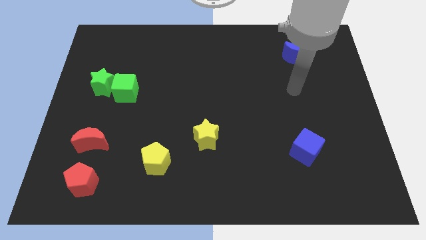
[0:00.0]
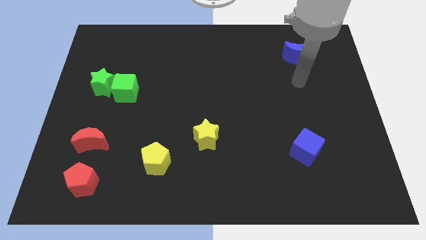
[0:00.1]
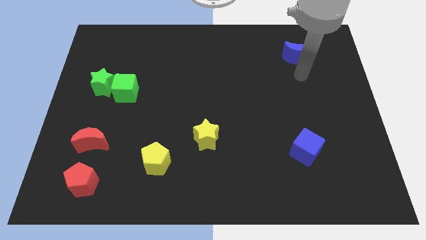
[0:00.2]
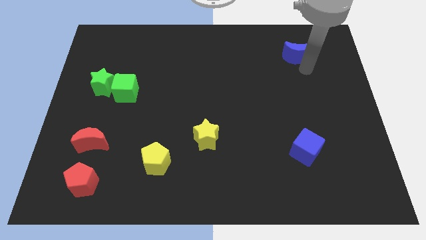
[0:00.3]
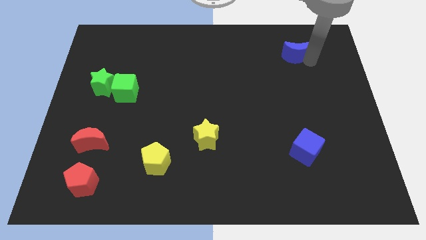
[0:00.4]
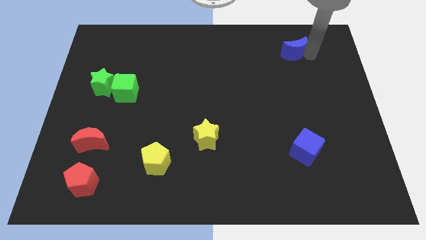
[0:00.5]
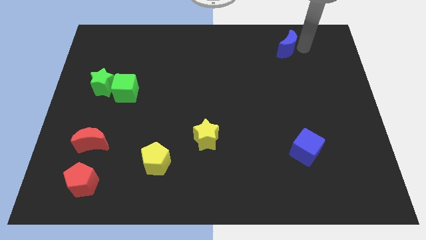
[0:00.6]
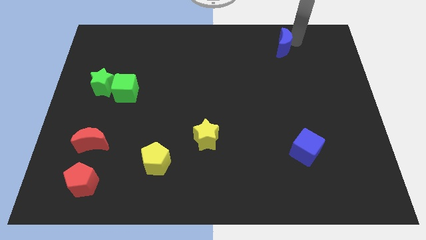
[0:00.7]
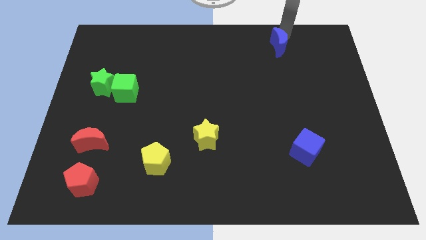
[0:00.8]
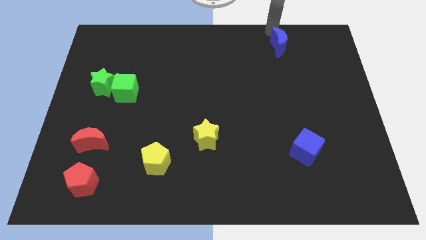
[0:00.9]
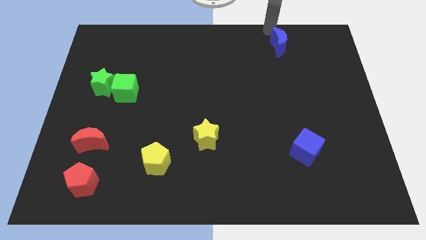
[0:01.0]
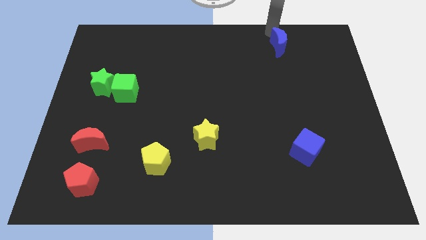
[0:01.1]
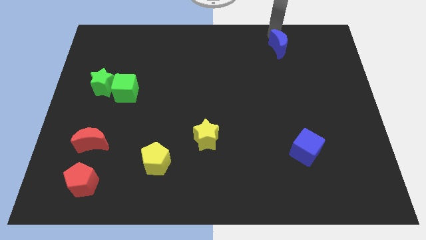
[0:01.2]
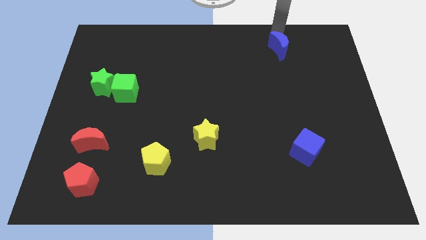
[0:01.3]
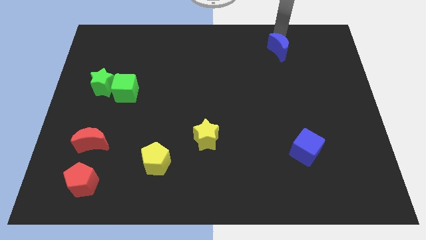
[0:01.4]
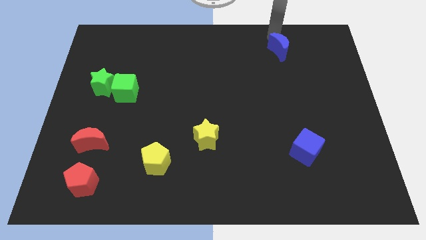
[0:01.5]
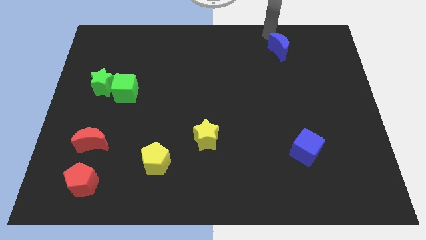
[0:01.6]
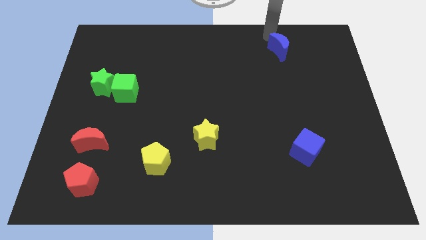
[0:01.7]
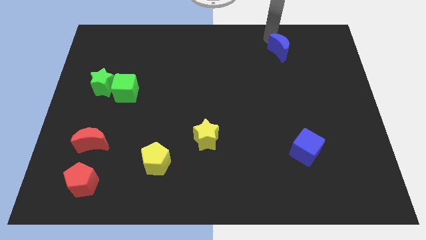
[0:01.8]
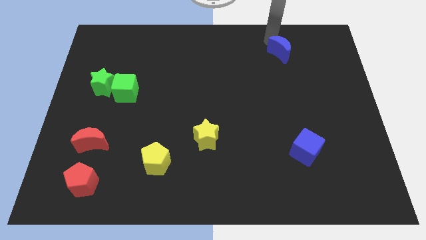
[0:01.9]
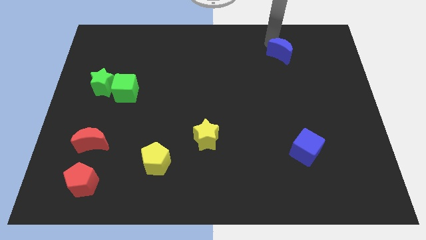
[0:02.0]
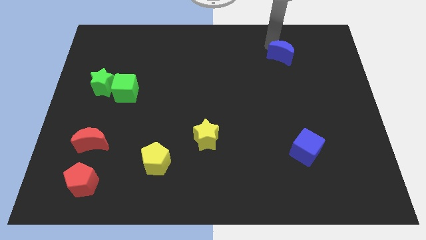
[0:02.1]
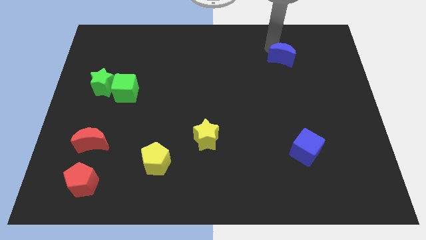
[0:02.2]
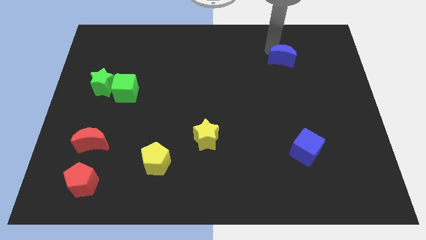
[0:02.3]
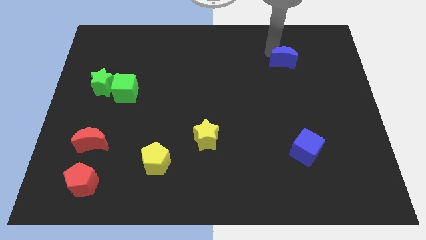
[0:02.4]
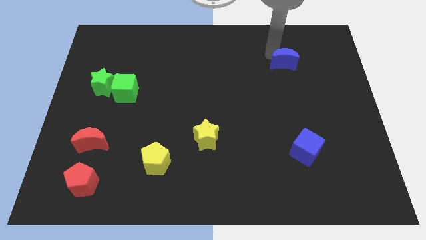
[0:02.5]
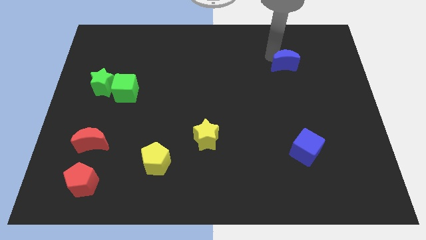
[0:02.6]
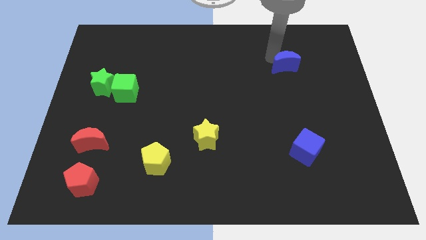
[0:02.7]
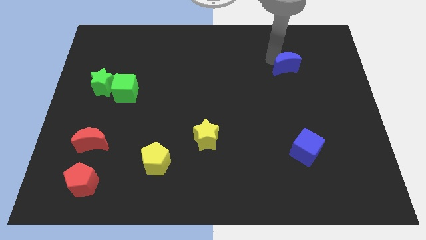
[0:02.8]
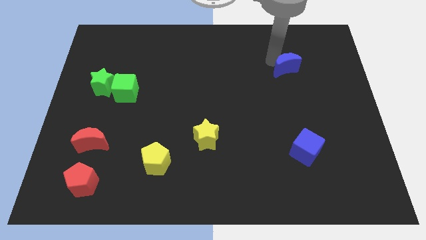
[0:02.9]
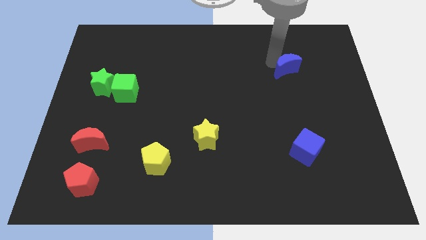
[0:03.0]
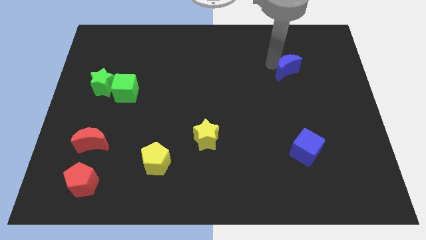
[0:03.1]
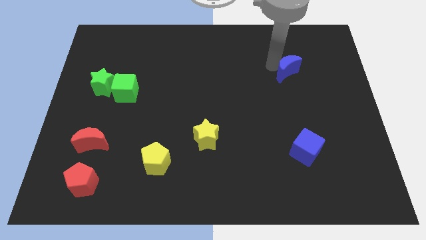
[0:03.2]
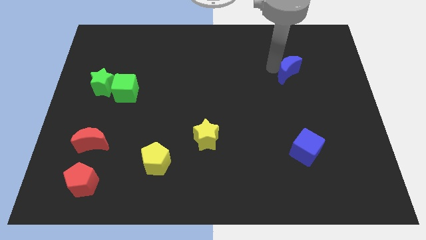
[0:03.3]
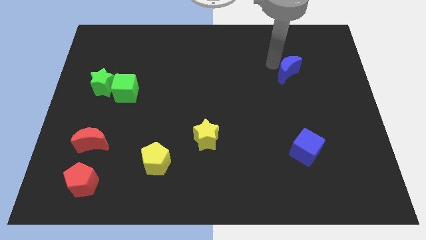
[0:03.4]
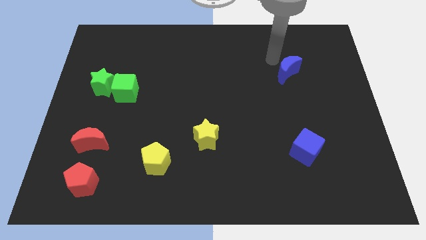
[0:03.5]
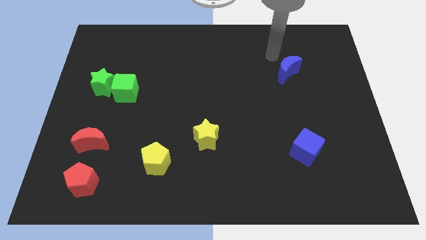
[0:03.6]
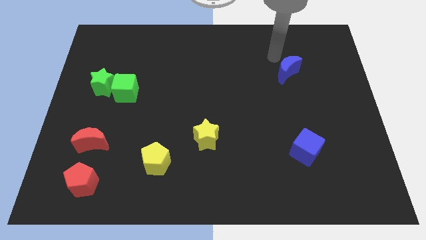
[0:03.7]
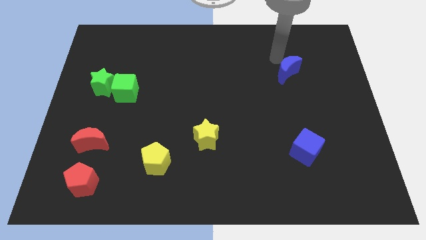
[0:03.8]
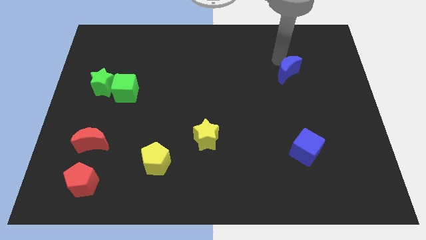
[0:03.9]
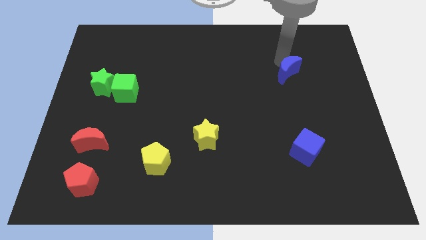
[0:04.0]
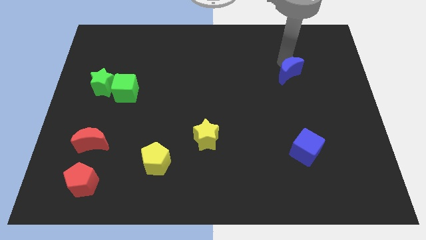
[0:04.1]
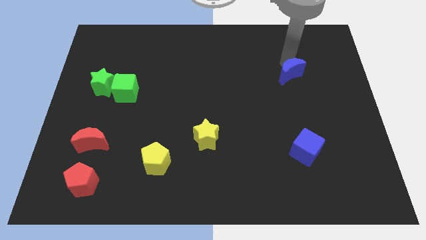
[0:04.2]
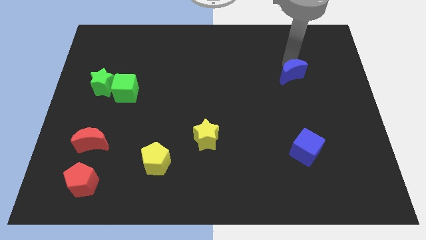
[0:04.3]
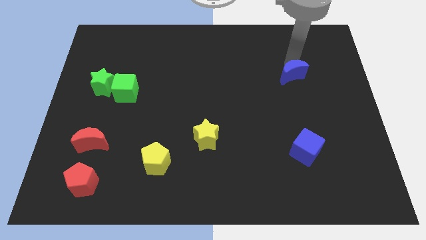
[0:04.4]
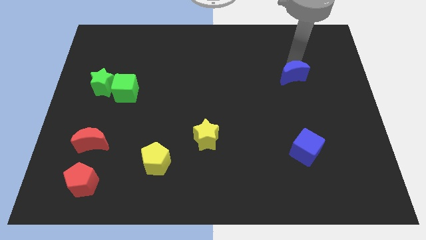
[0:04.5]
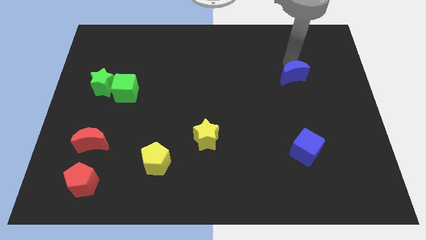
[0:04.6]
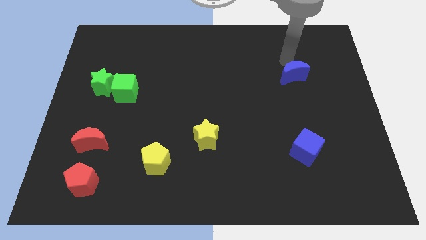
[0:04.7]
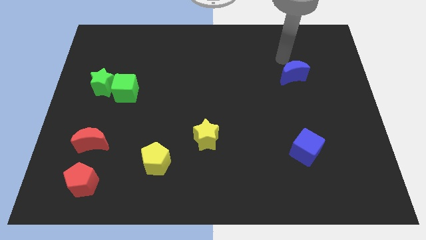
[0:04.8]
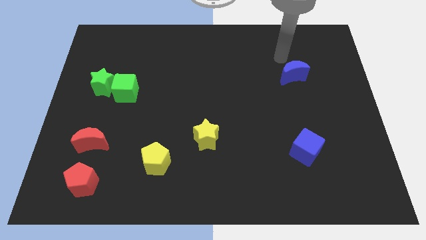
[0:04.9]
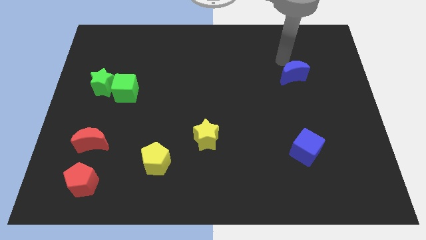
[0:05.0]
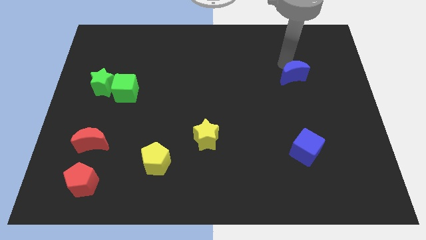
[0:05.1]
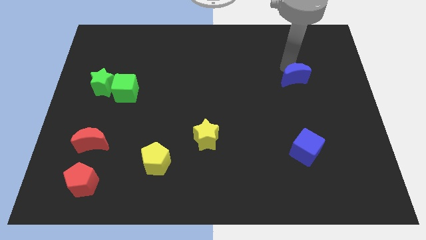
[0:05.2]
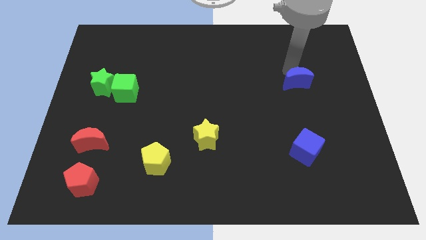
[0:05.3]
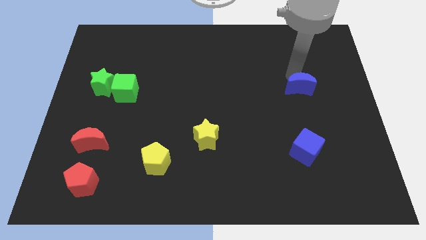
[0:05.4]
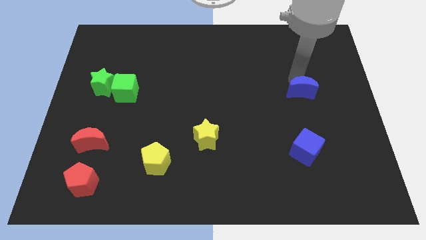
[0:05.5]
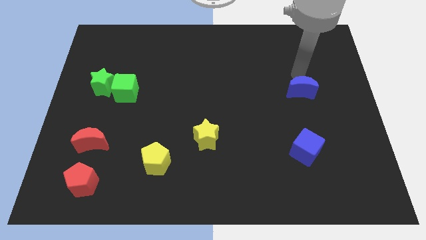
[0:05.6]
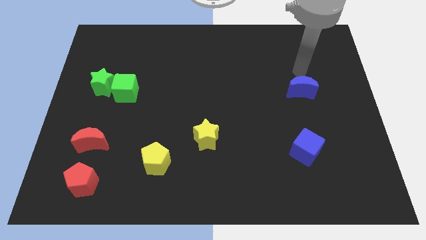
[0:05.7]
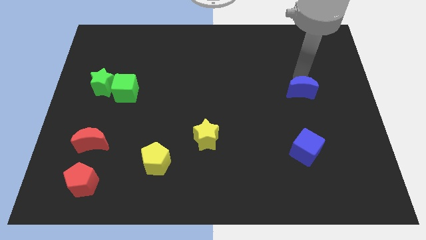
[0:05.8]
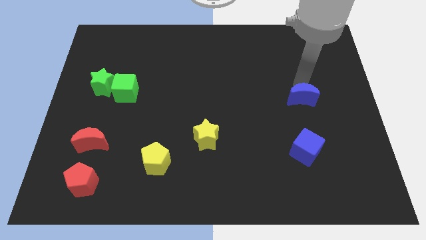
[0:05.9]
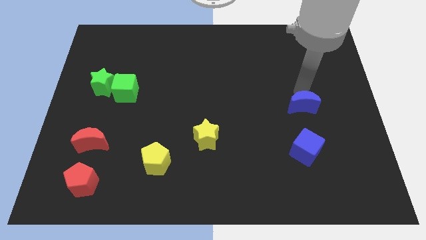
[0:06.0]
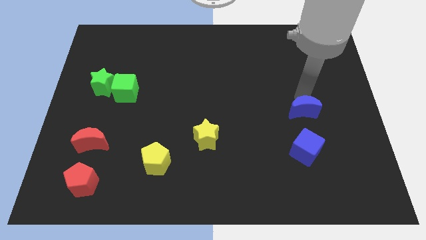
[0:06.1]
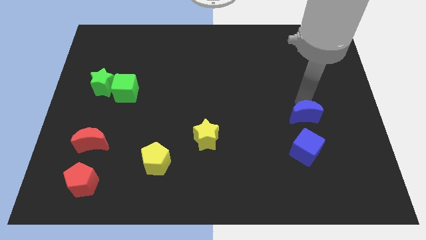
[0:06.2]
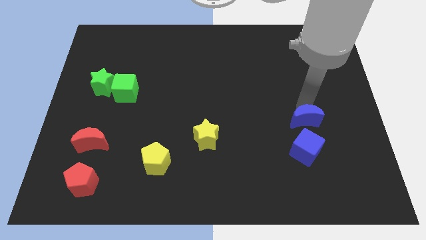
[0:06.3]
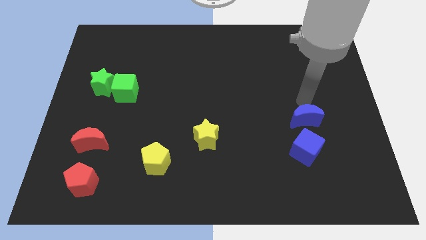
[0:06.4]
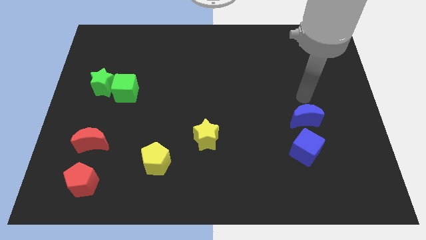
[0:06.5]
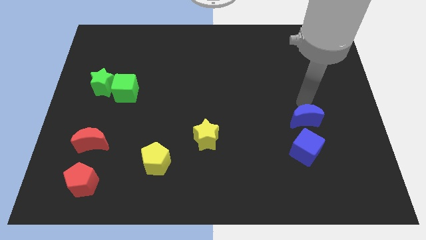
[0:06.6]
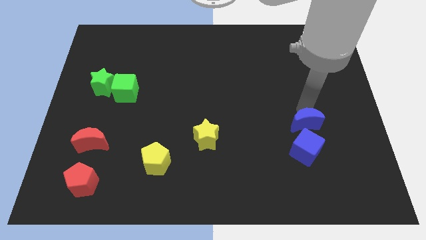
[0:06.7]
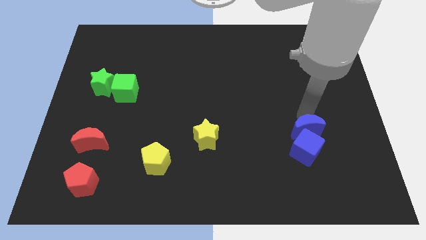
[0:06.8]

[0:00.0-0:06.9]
put the blue moon close to the blue cube

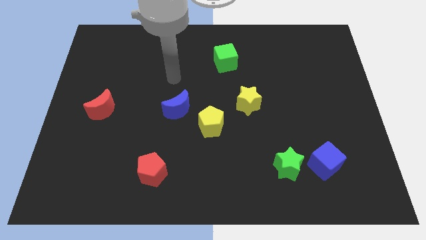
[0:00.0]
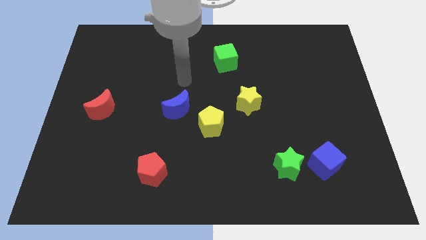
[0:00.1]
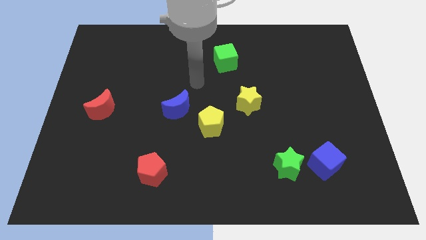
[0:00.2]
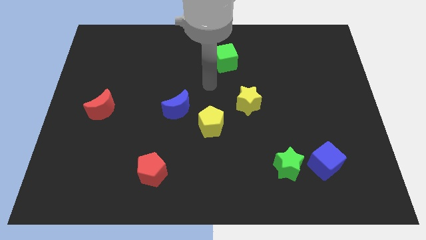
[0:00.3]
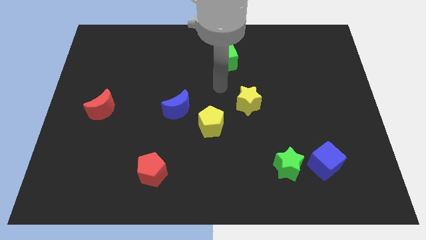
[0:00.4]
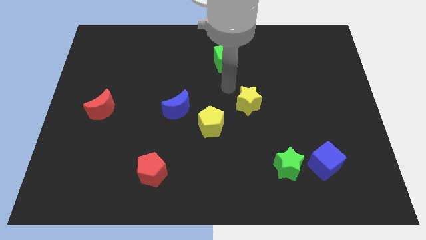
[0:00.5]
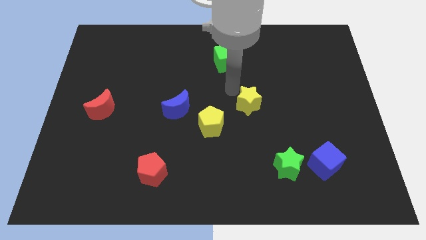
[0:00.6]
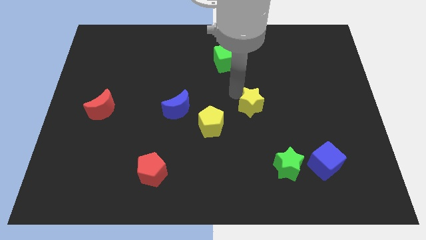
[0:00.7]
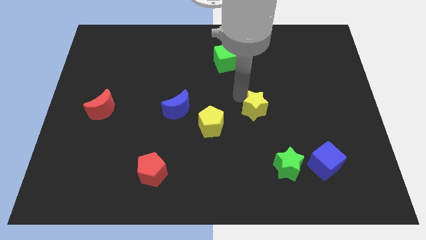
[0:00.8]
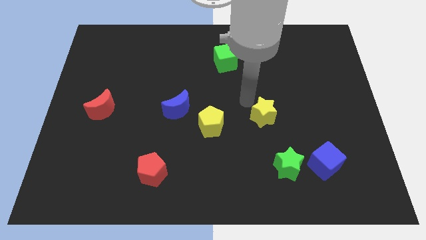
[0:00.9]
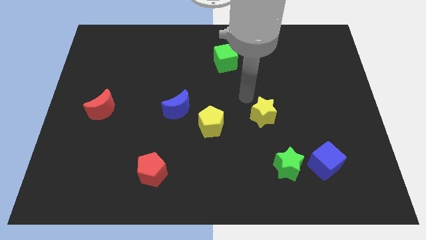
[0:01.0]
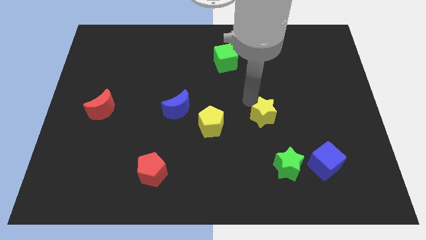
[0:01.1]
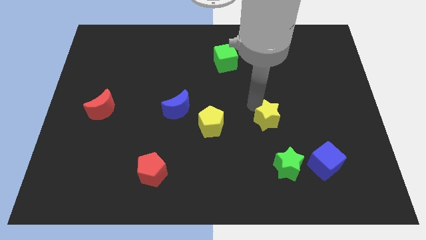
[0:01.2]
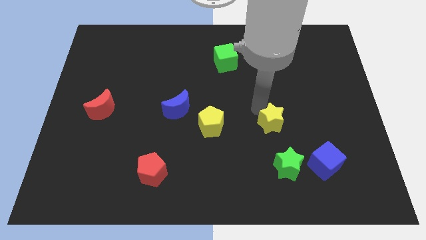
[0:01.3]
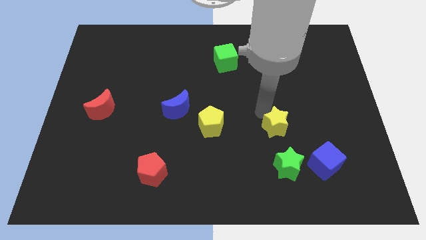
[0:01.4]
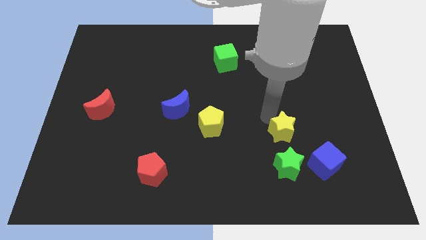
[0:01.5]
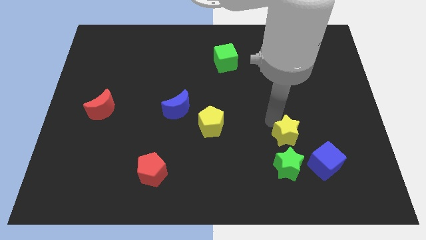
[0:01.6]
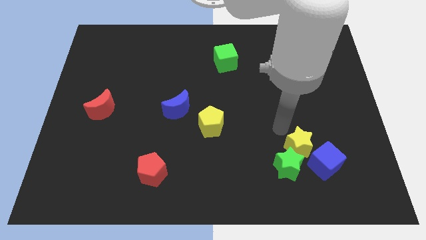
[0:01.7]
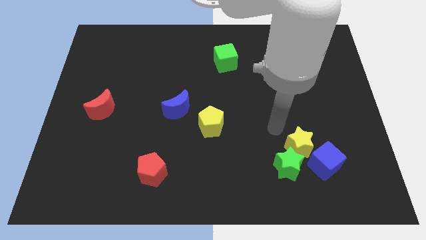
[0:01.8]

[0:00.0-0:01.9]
put the yellow star close to the blue cube
